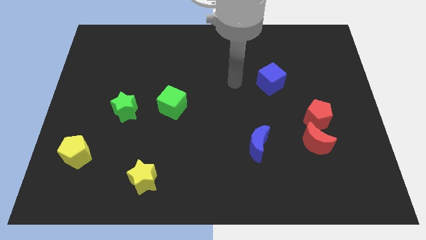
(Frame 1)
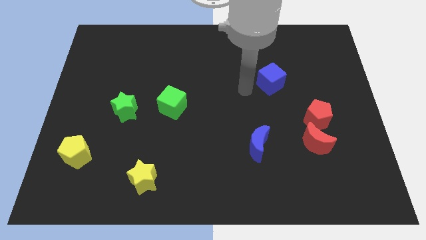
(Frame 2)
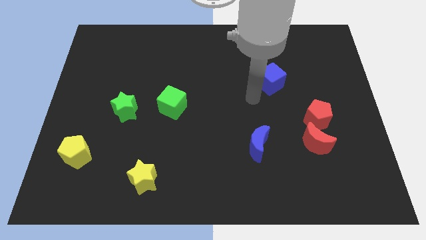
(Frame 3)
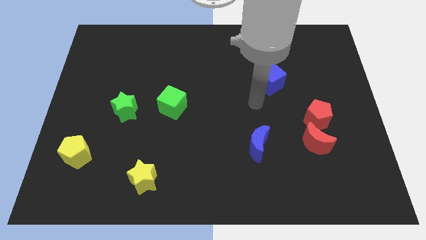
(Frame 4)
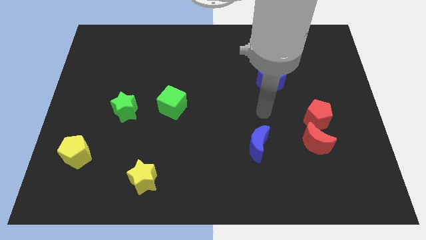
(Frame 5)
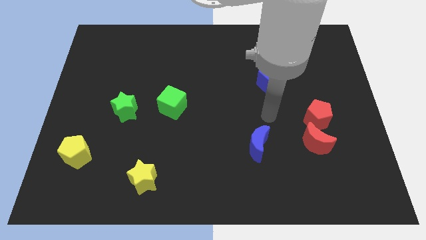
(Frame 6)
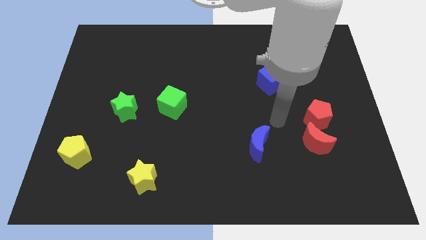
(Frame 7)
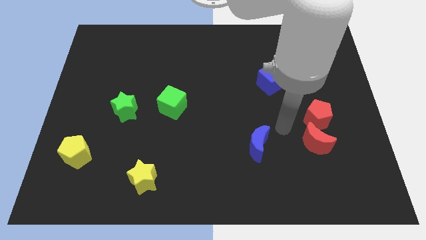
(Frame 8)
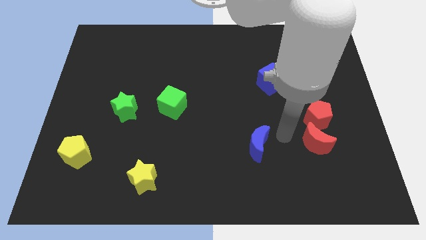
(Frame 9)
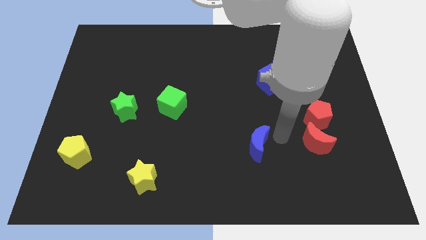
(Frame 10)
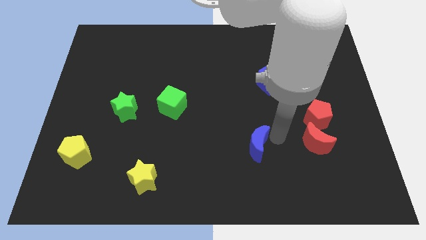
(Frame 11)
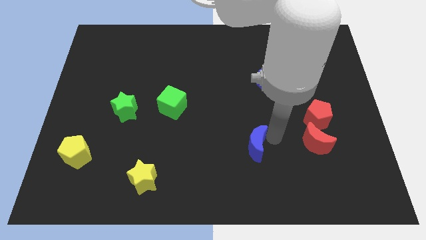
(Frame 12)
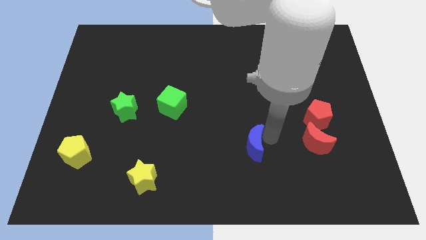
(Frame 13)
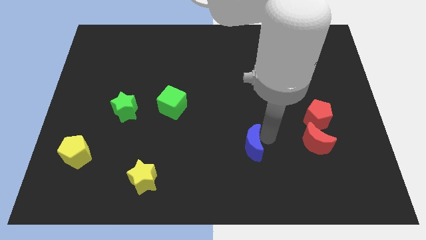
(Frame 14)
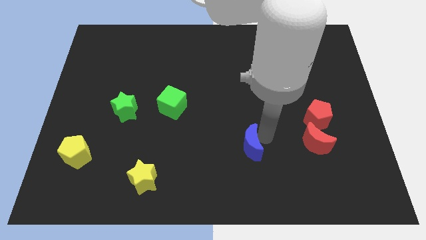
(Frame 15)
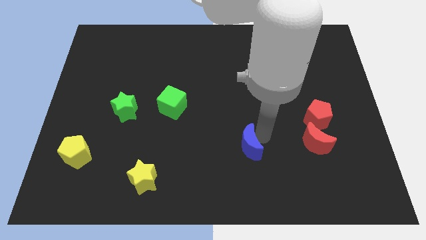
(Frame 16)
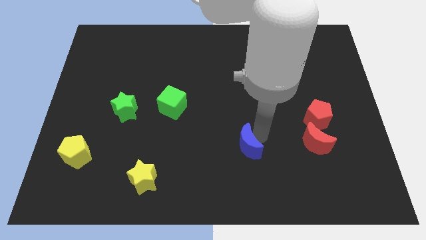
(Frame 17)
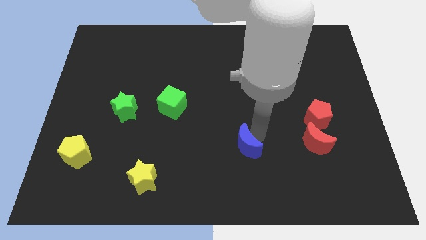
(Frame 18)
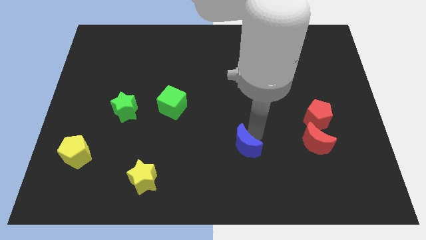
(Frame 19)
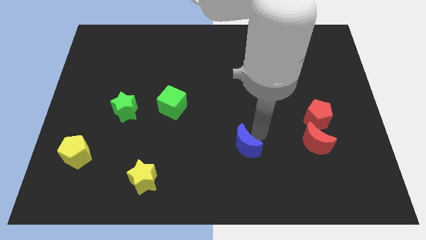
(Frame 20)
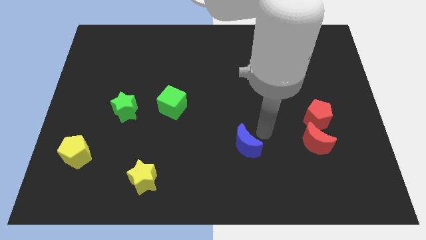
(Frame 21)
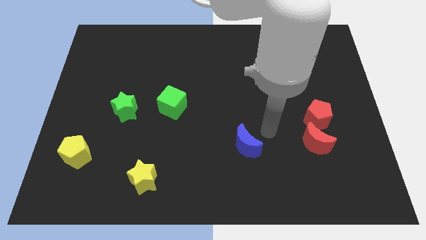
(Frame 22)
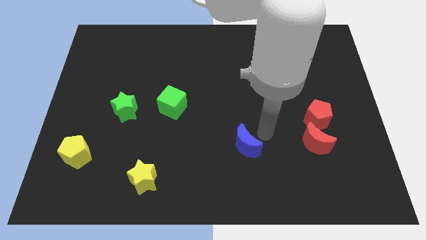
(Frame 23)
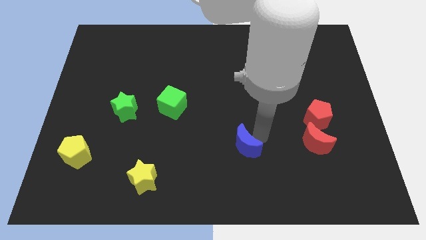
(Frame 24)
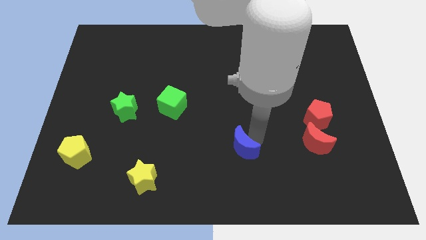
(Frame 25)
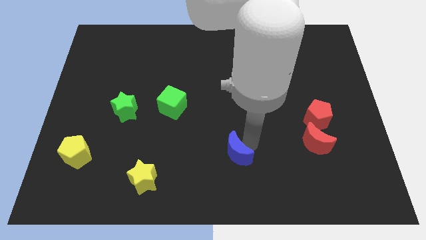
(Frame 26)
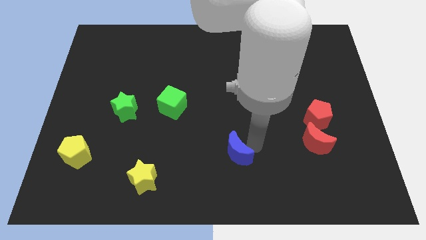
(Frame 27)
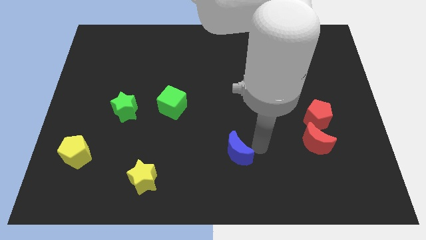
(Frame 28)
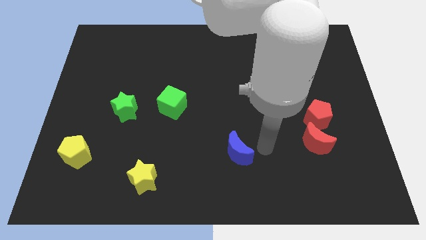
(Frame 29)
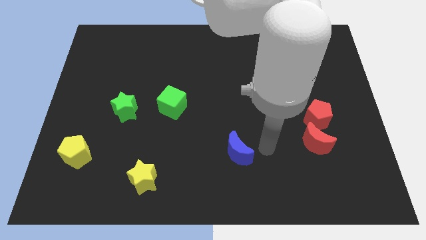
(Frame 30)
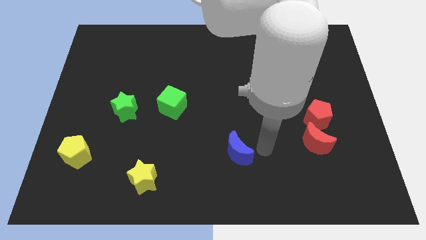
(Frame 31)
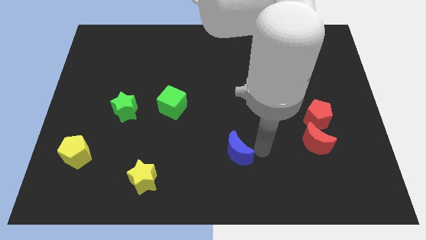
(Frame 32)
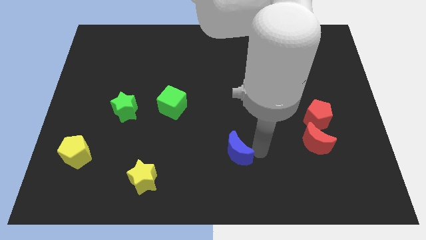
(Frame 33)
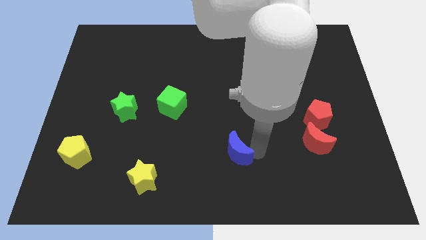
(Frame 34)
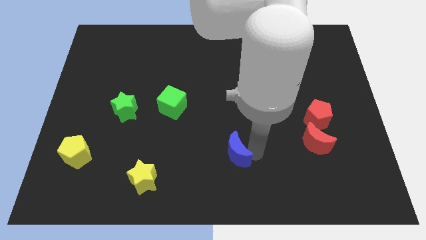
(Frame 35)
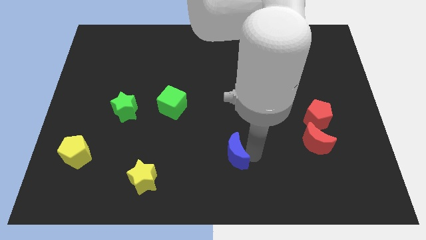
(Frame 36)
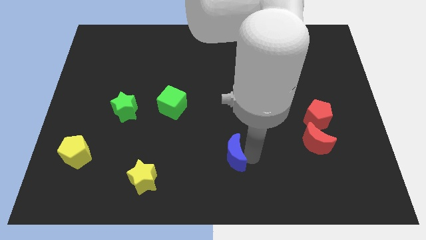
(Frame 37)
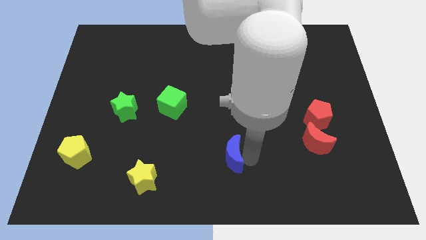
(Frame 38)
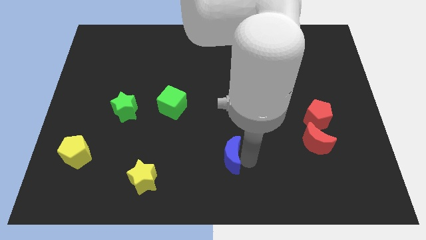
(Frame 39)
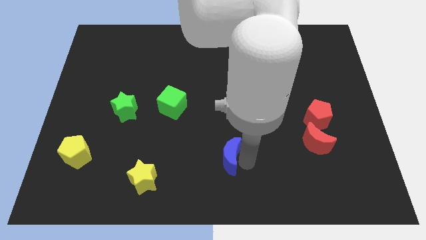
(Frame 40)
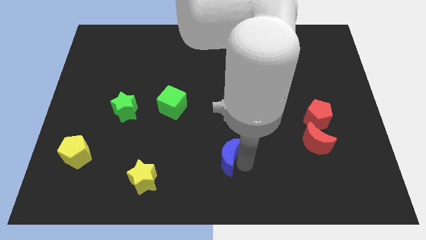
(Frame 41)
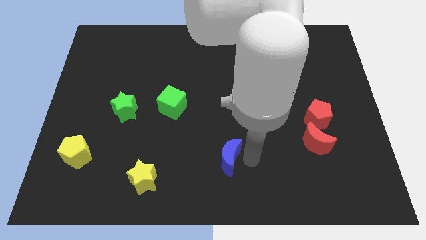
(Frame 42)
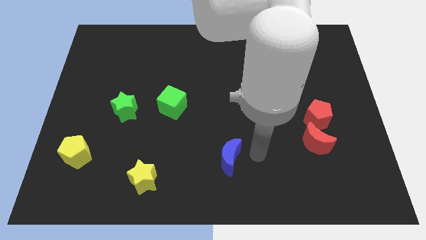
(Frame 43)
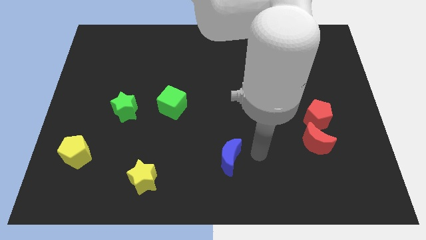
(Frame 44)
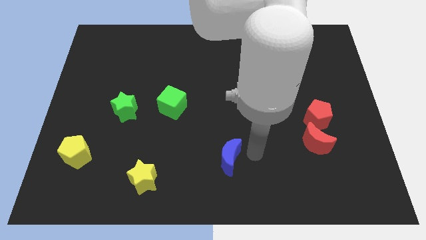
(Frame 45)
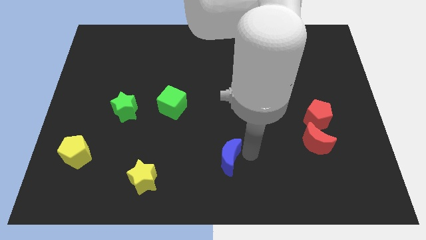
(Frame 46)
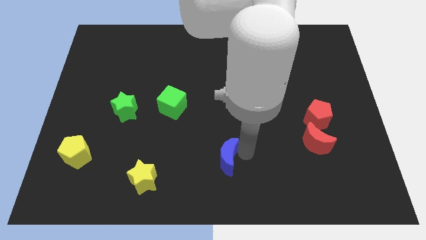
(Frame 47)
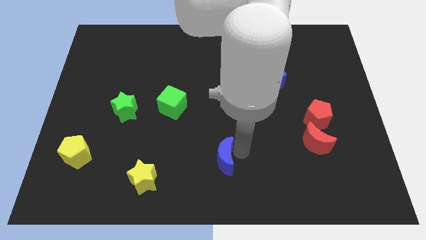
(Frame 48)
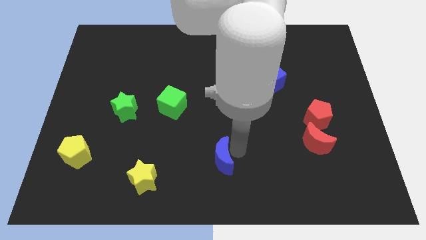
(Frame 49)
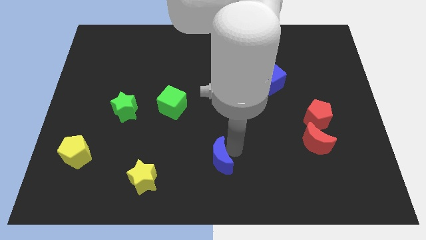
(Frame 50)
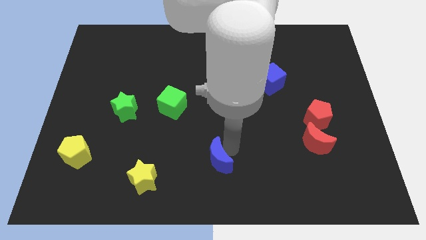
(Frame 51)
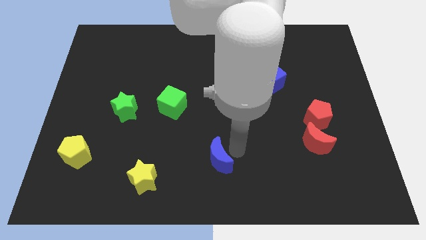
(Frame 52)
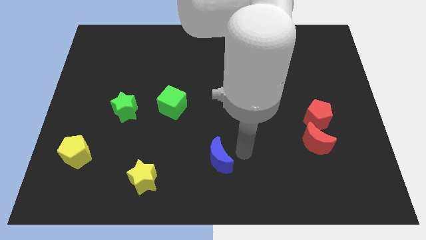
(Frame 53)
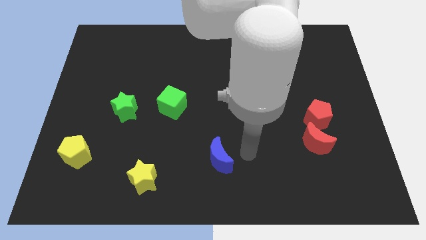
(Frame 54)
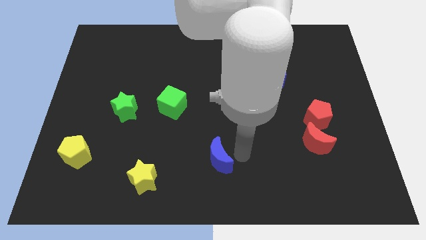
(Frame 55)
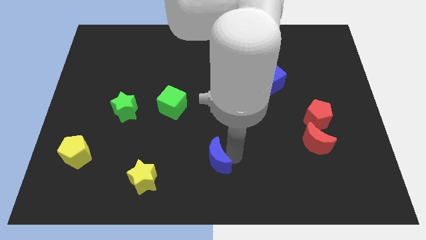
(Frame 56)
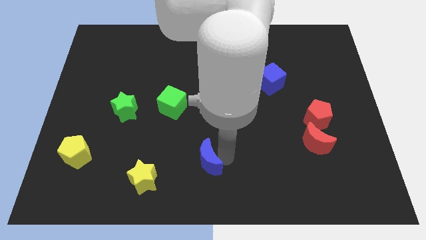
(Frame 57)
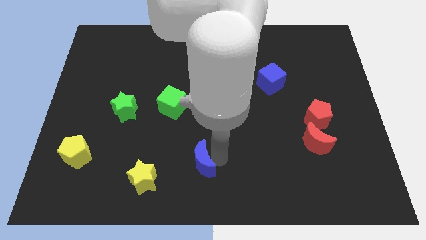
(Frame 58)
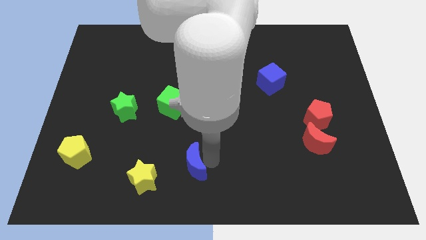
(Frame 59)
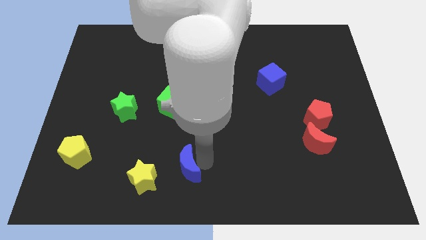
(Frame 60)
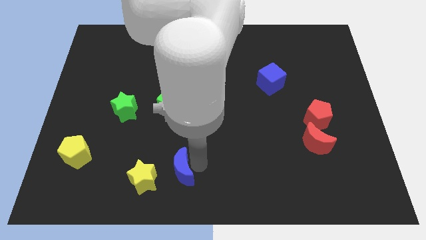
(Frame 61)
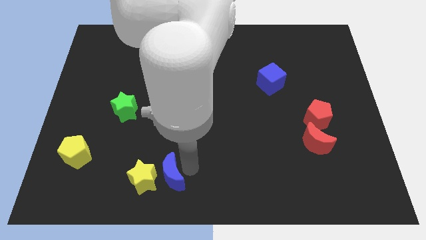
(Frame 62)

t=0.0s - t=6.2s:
move the blue moon next to the yellow star

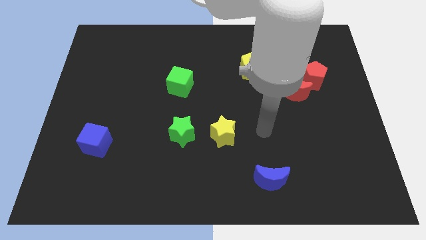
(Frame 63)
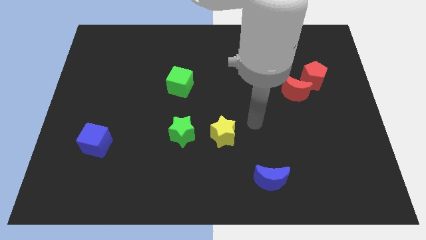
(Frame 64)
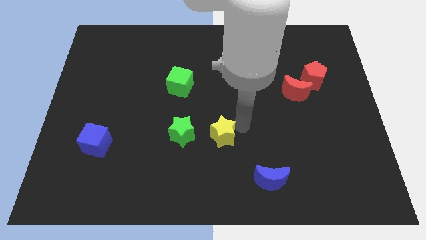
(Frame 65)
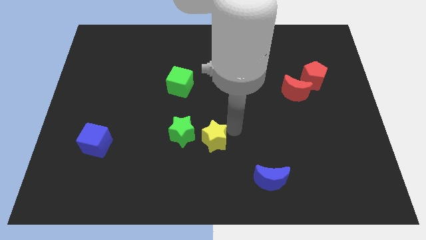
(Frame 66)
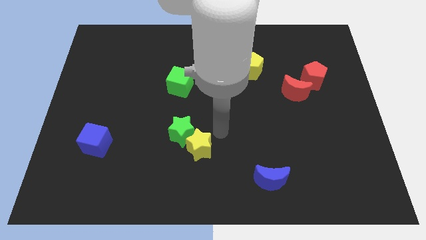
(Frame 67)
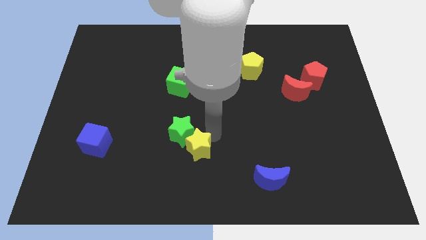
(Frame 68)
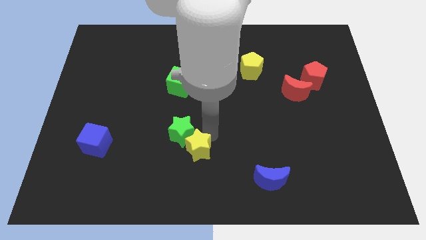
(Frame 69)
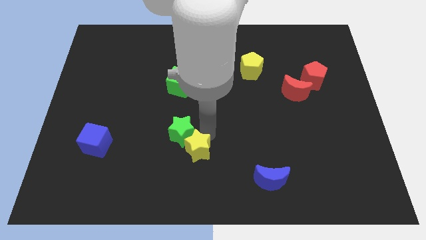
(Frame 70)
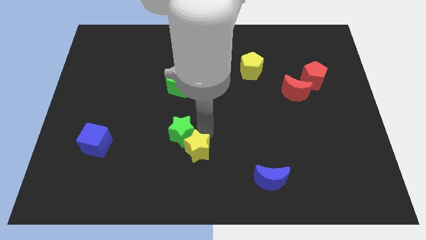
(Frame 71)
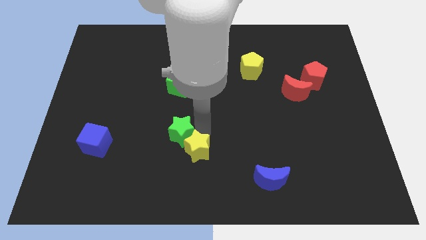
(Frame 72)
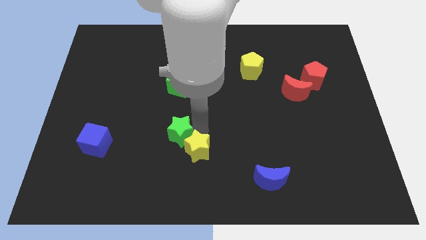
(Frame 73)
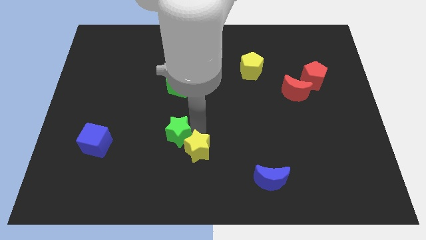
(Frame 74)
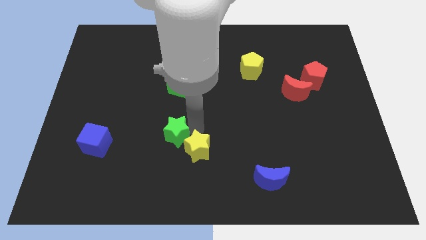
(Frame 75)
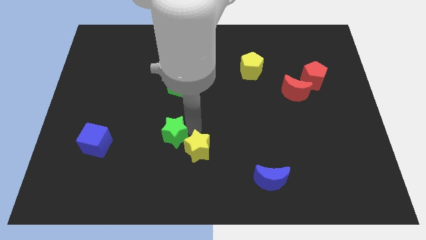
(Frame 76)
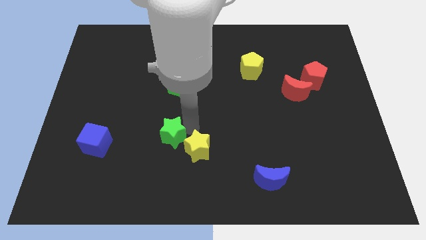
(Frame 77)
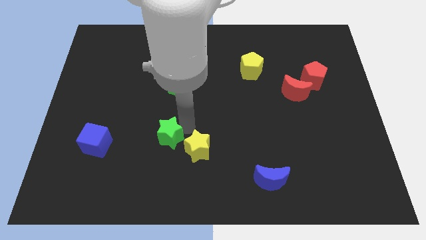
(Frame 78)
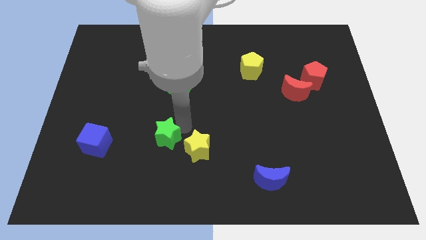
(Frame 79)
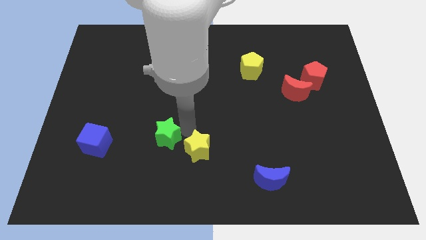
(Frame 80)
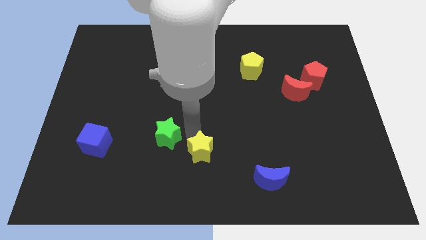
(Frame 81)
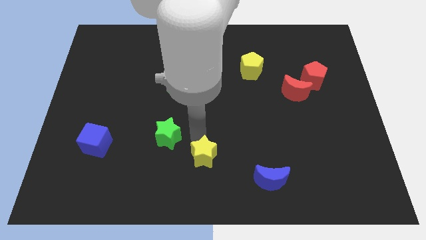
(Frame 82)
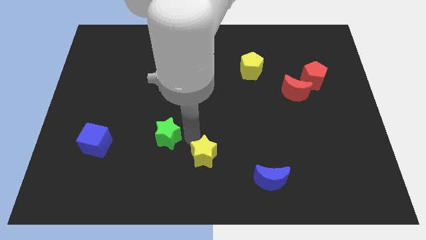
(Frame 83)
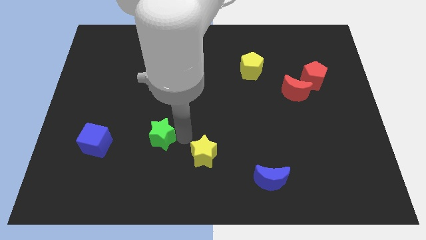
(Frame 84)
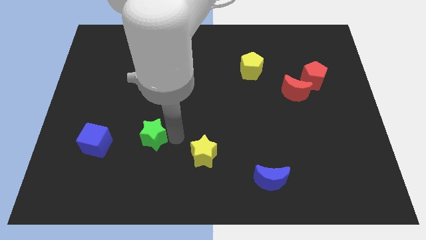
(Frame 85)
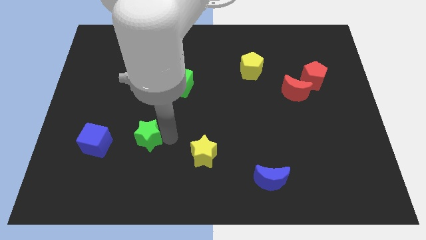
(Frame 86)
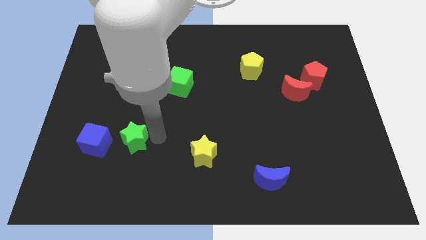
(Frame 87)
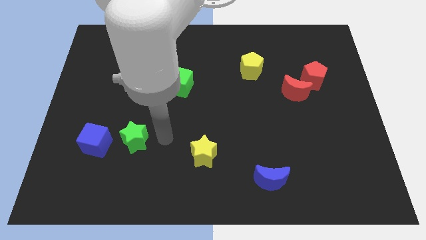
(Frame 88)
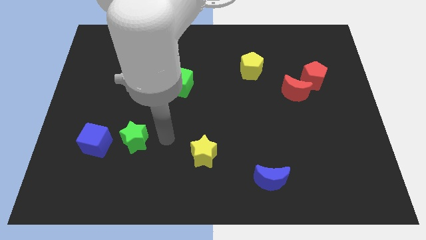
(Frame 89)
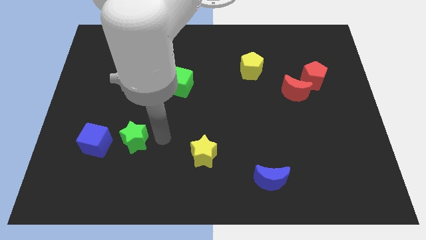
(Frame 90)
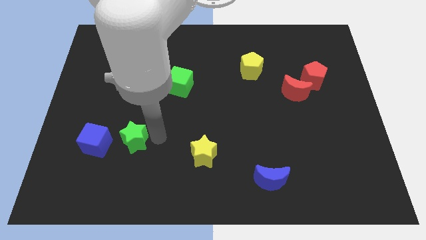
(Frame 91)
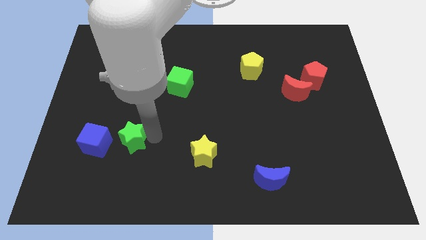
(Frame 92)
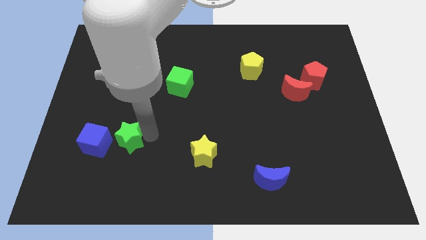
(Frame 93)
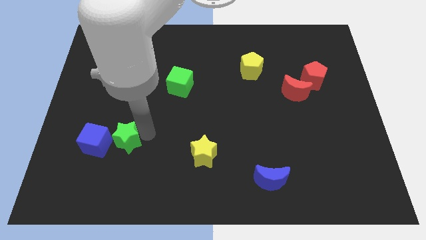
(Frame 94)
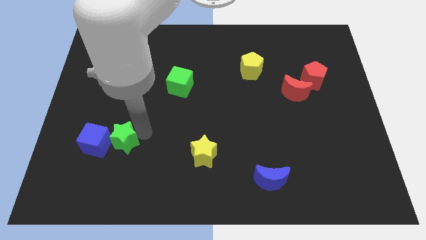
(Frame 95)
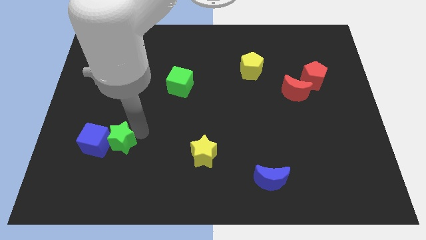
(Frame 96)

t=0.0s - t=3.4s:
put the green star to the blue cube
